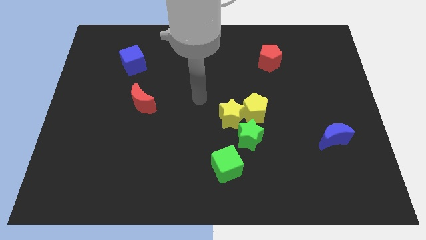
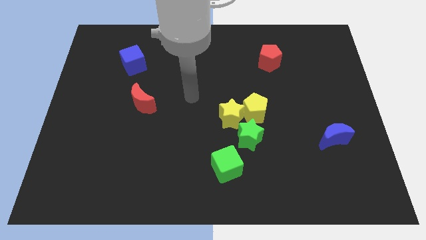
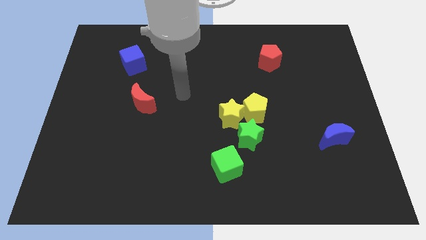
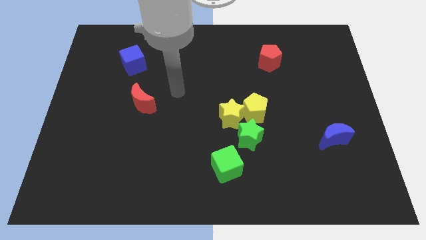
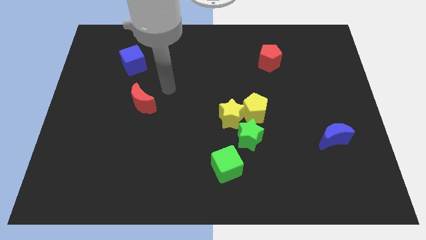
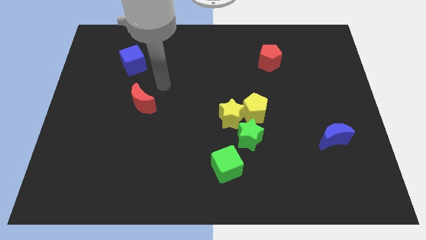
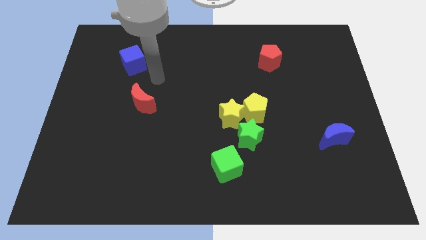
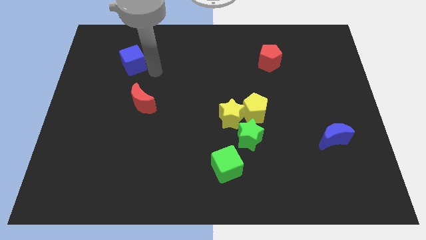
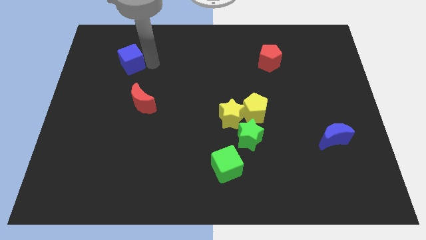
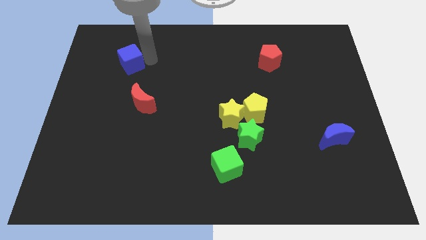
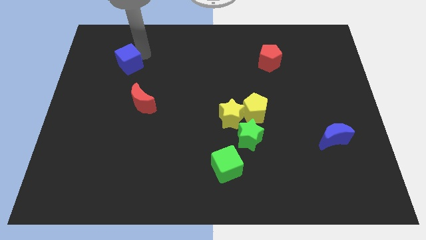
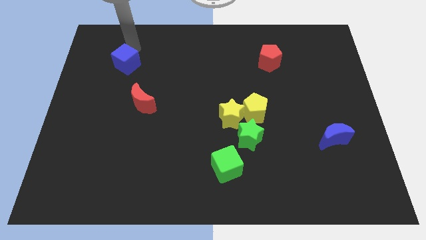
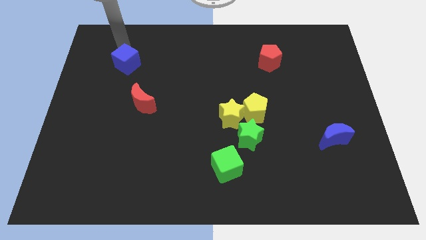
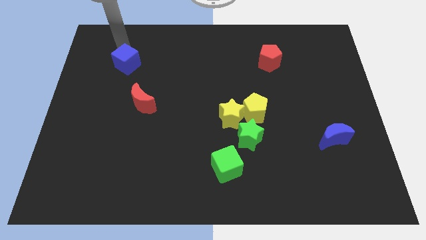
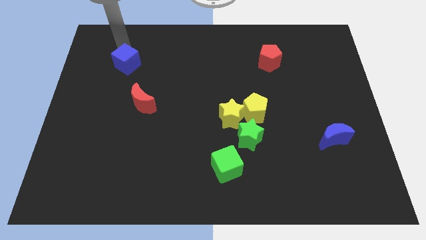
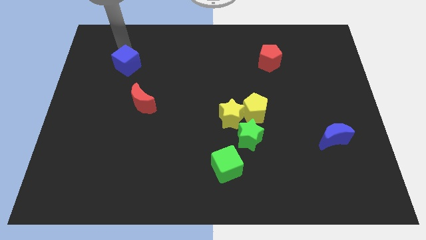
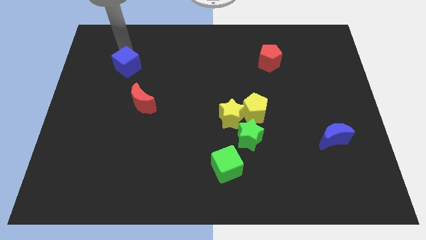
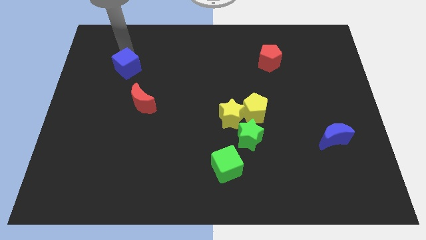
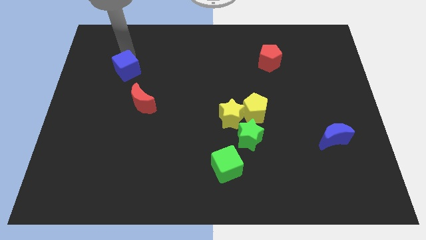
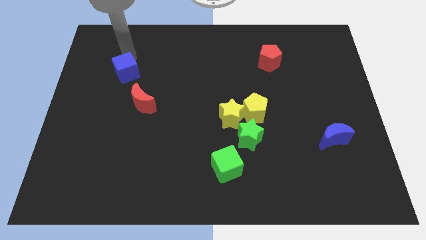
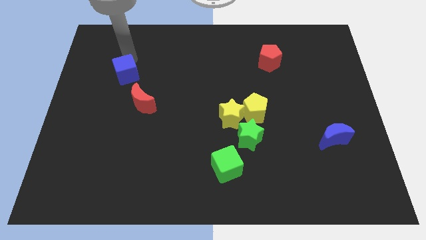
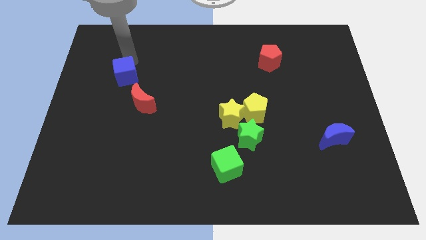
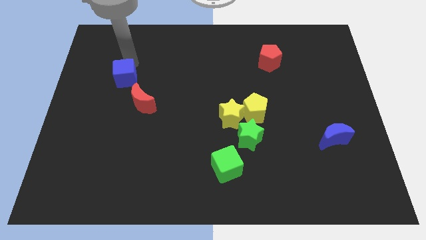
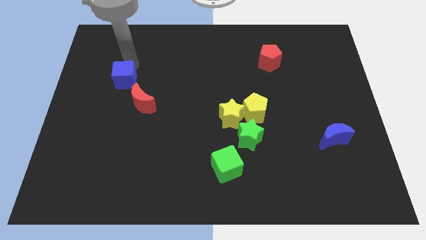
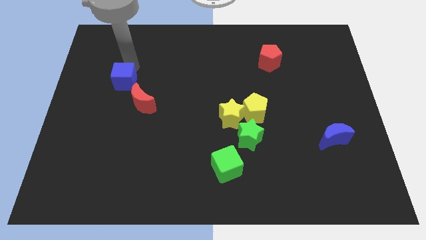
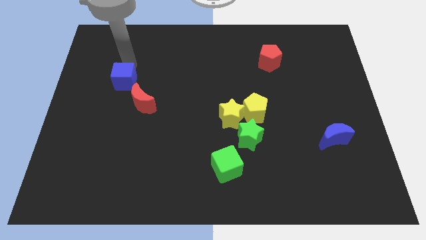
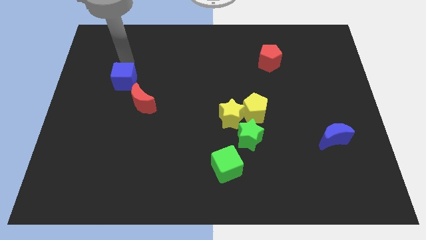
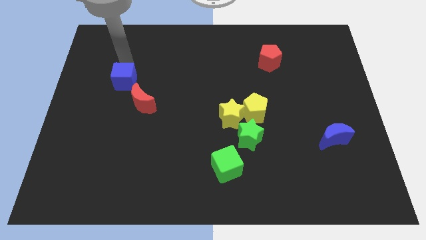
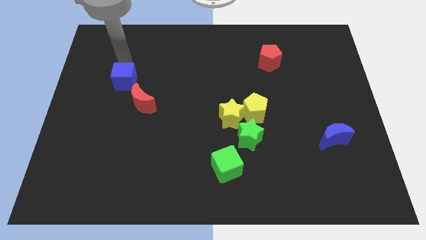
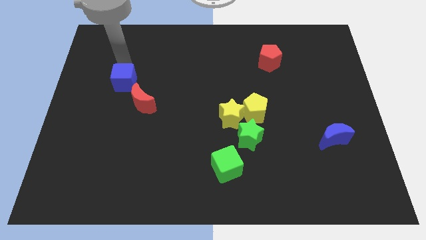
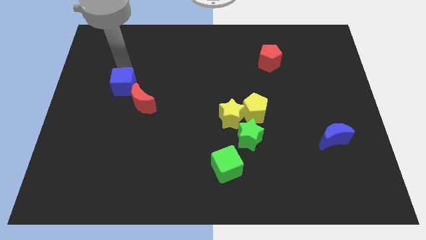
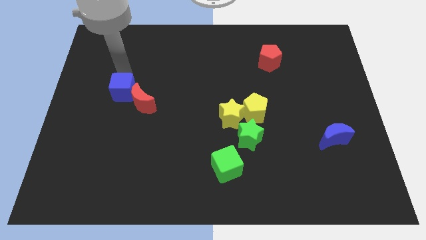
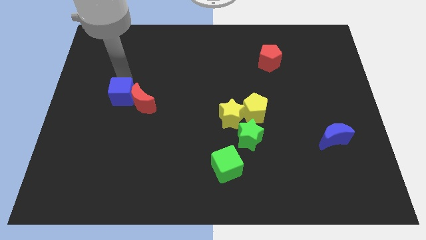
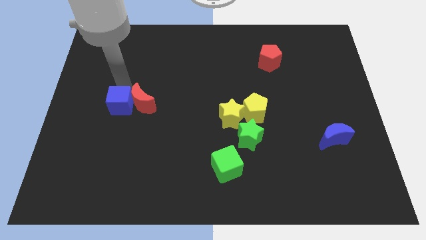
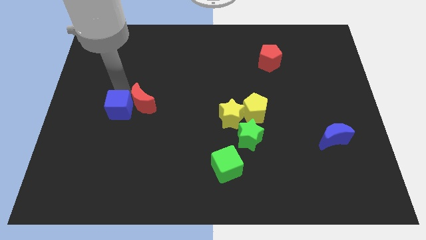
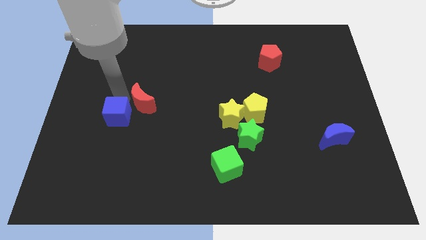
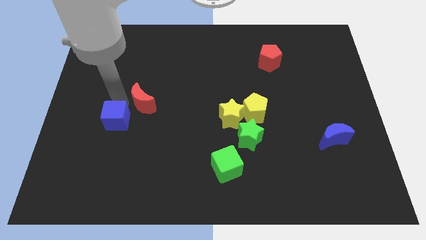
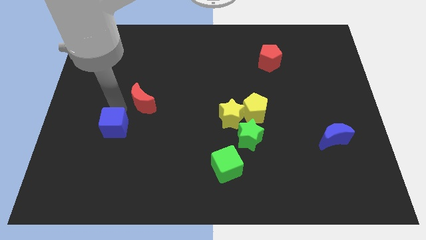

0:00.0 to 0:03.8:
move the blue cube downwards

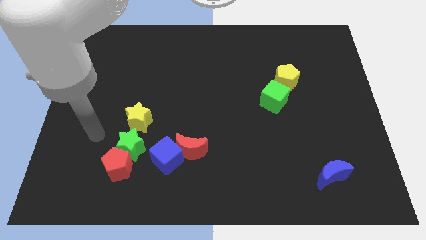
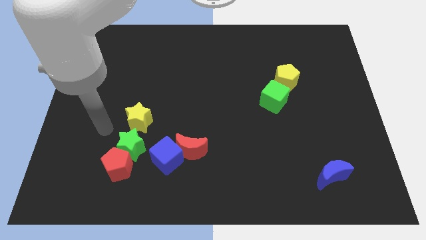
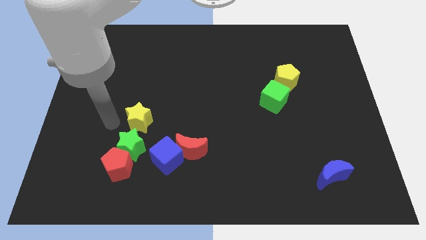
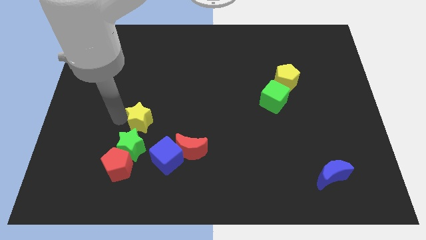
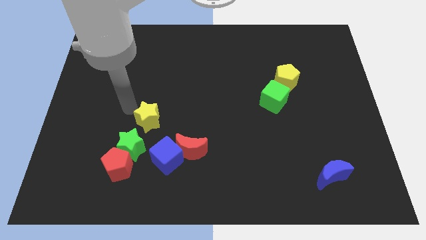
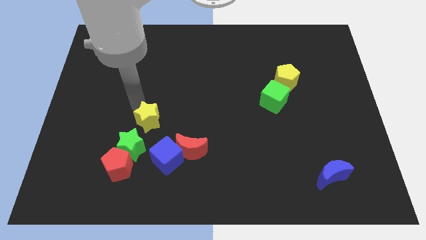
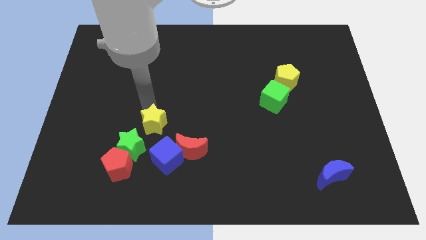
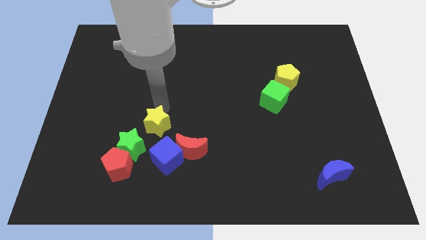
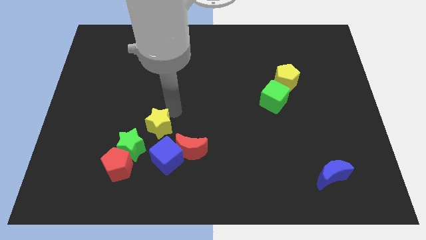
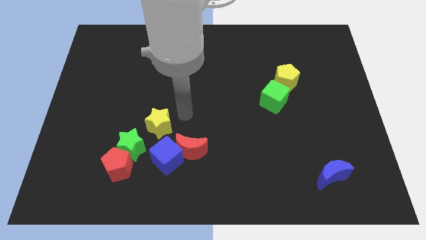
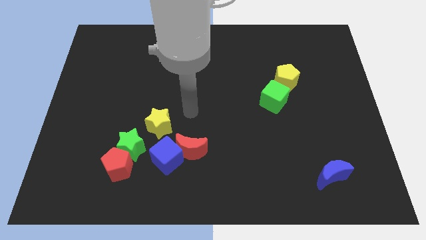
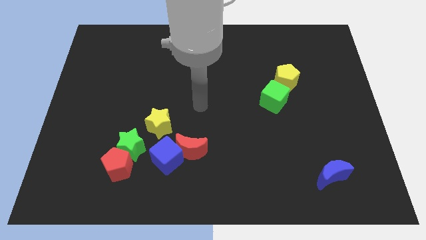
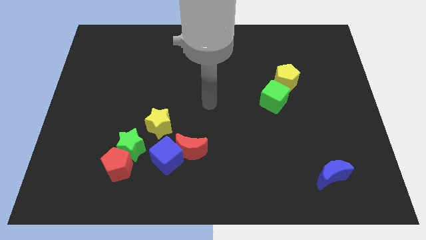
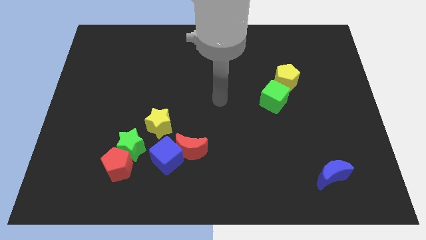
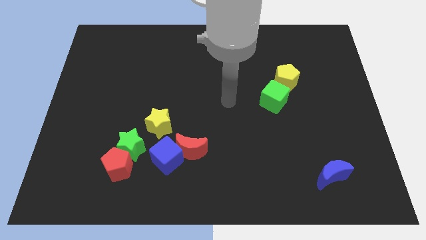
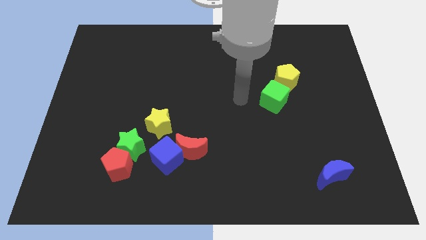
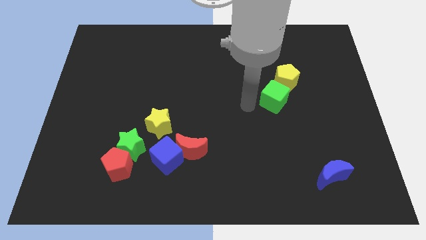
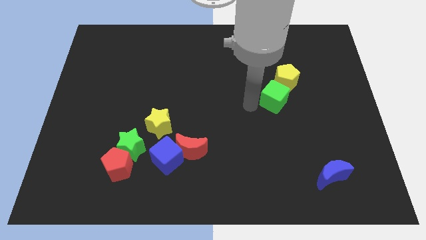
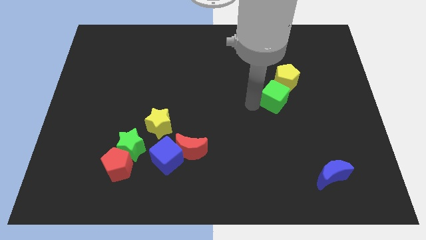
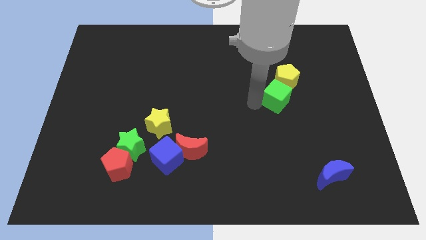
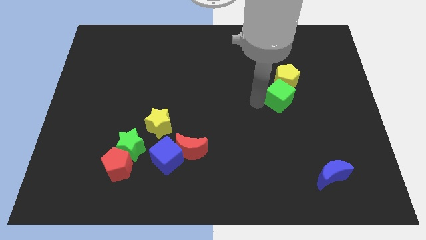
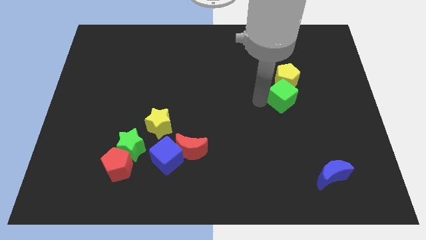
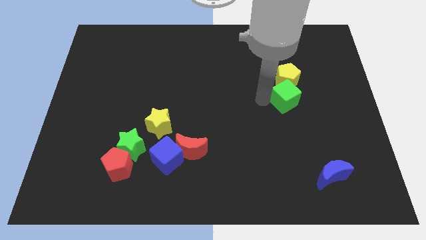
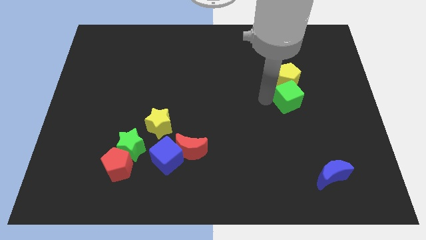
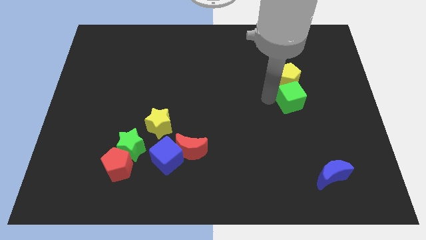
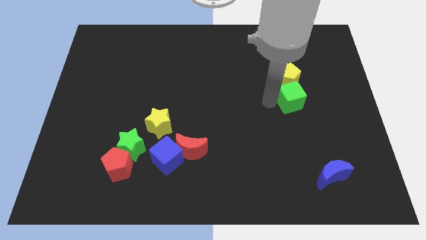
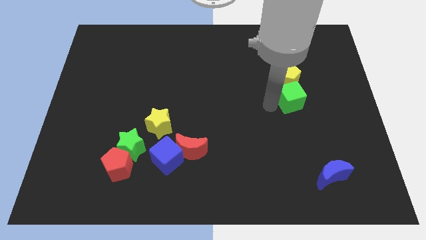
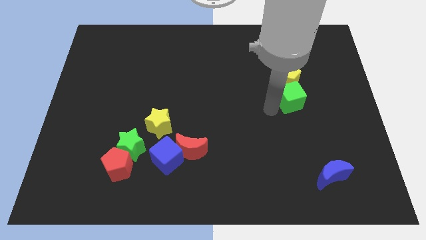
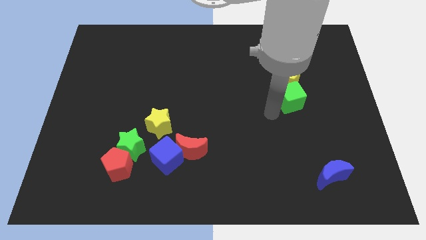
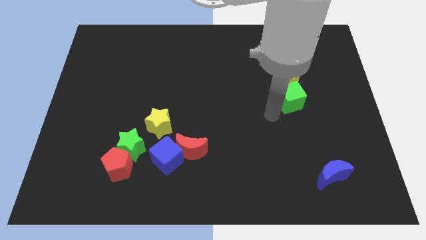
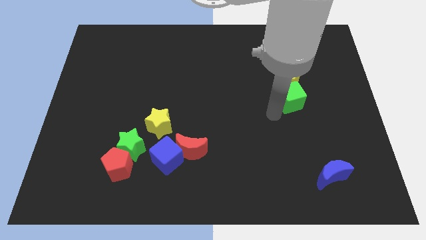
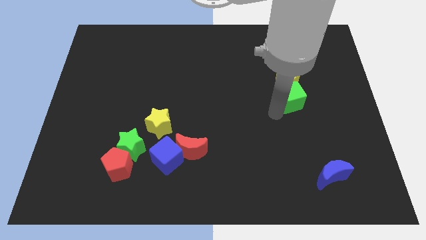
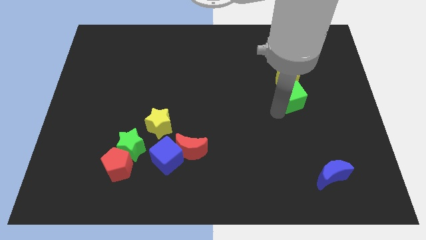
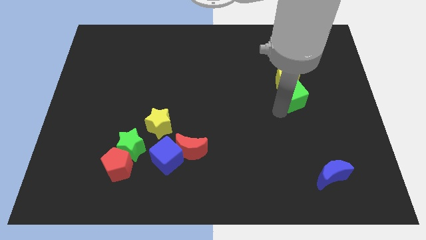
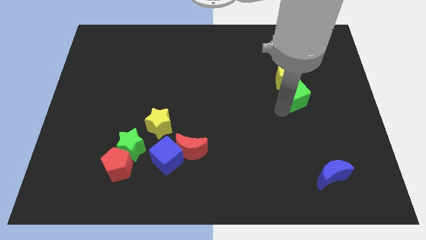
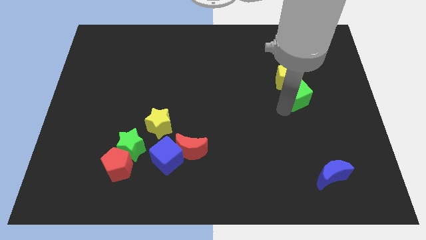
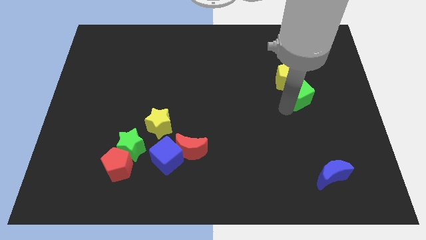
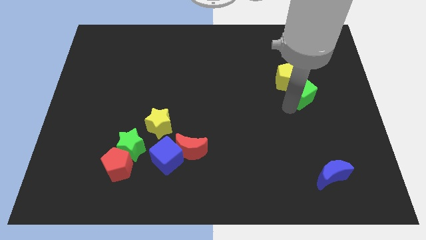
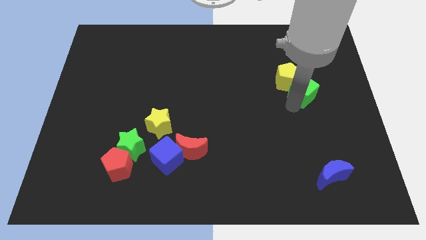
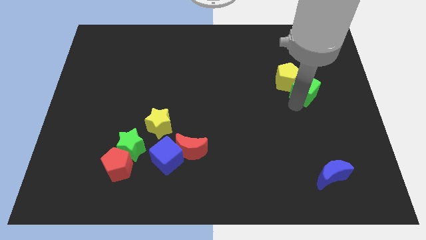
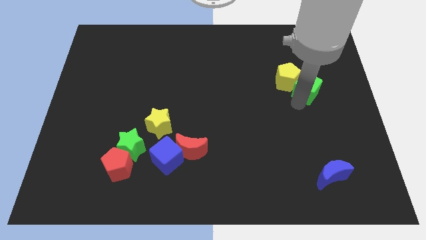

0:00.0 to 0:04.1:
move the green cube upwards and to the right a little bit

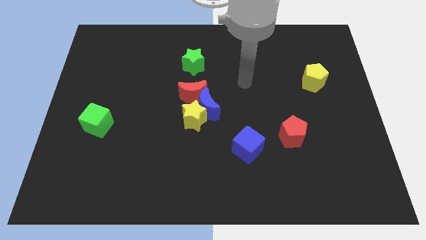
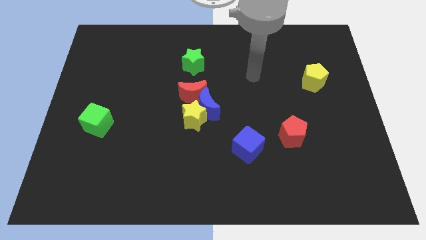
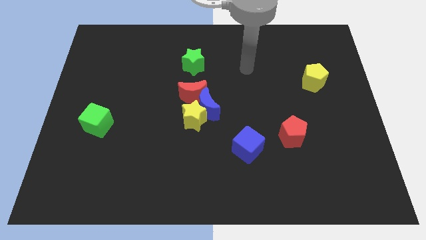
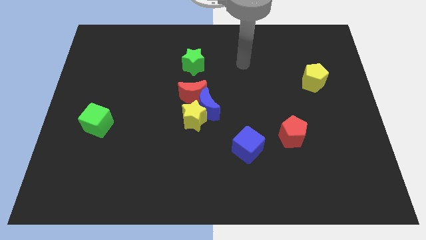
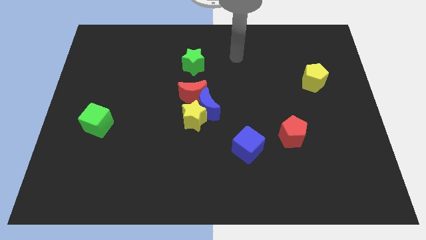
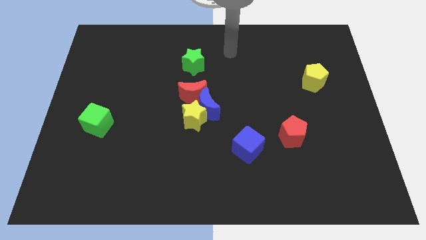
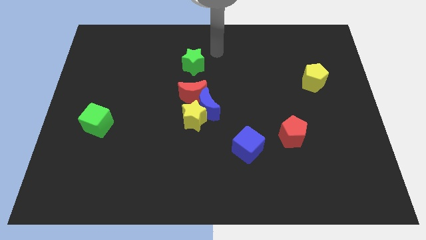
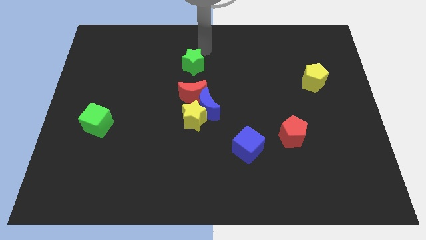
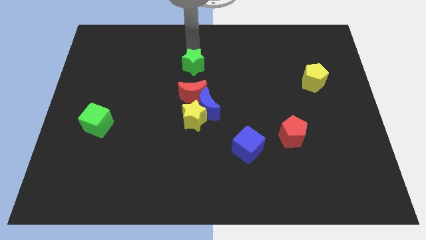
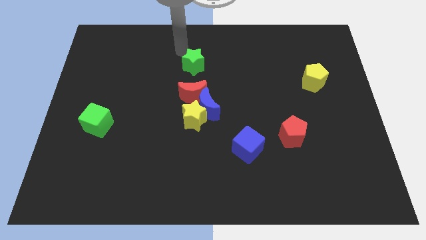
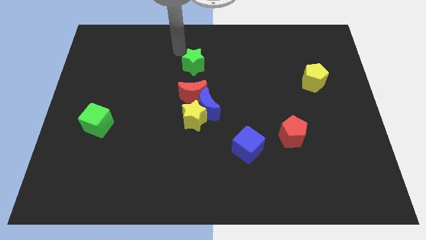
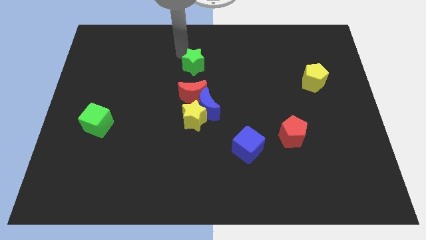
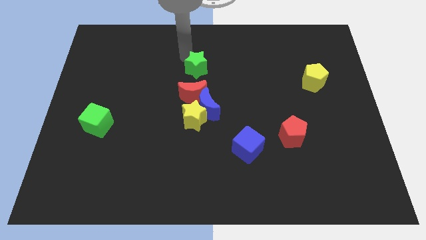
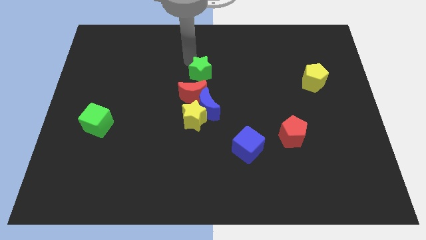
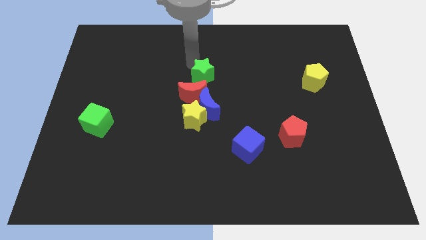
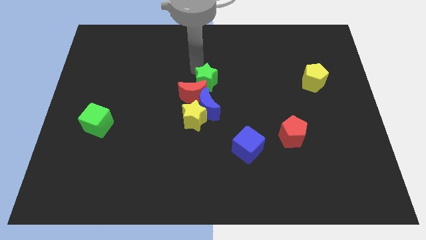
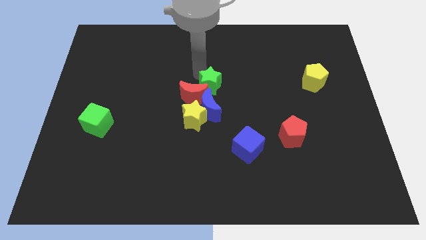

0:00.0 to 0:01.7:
slightly push the green star down and to the right
